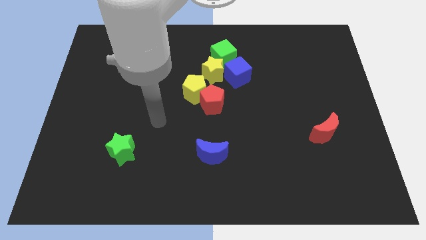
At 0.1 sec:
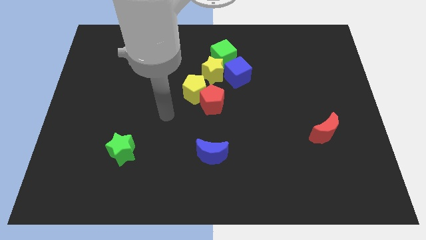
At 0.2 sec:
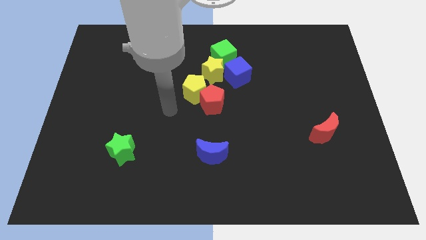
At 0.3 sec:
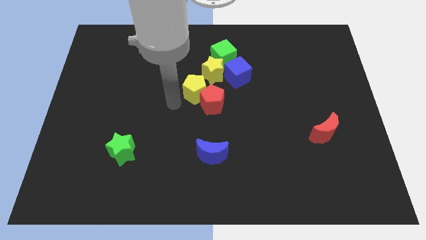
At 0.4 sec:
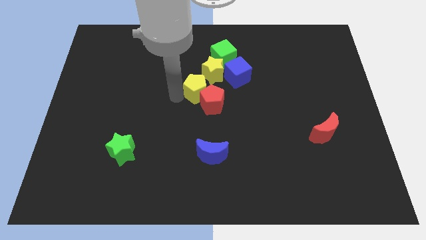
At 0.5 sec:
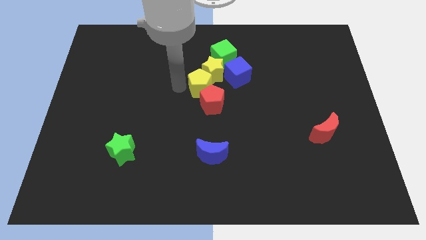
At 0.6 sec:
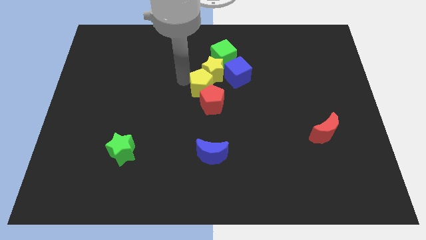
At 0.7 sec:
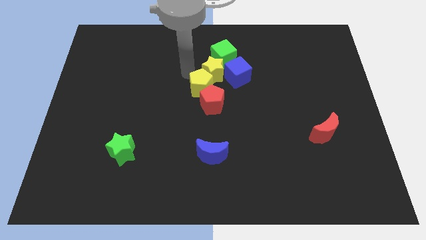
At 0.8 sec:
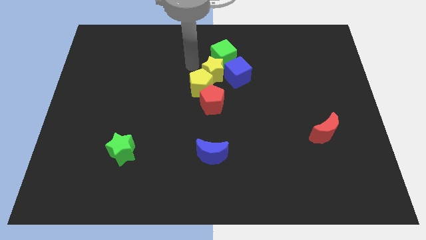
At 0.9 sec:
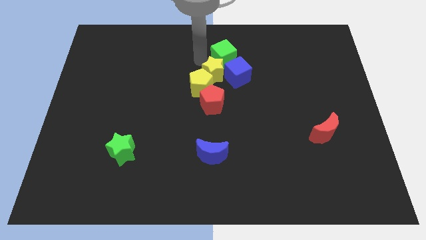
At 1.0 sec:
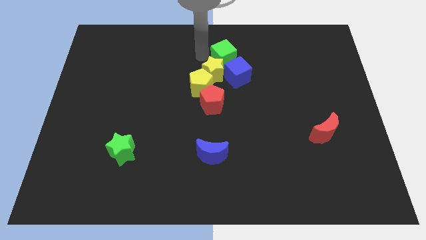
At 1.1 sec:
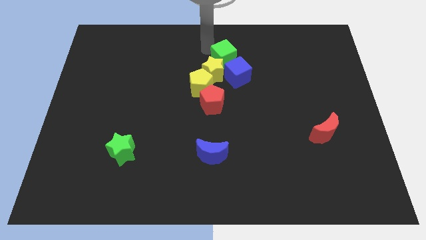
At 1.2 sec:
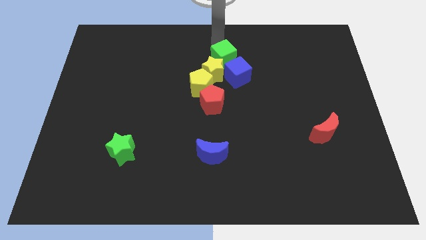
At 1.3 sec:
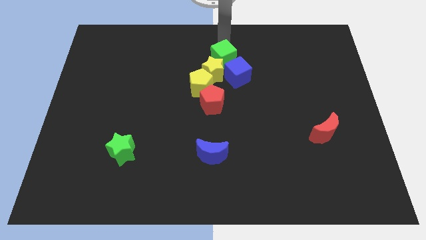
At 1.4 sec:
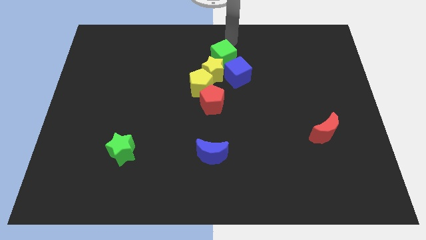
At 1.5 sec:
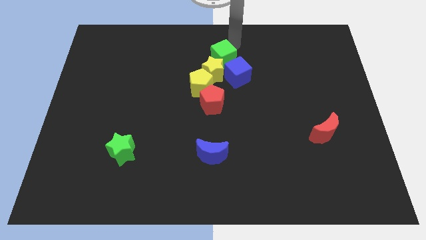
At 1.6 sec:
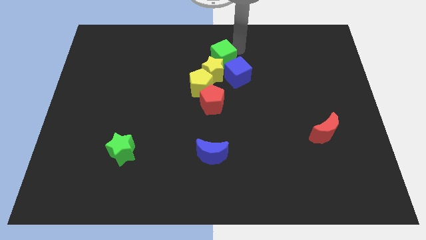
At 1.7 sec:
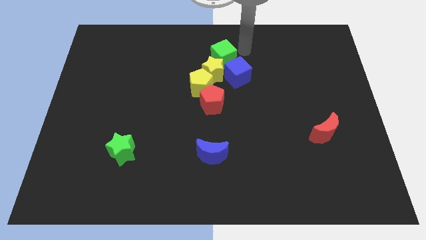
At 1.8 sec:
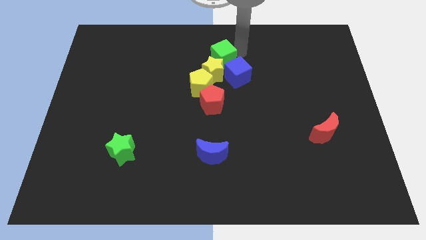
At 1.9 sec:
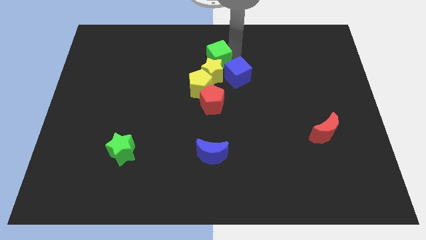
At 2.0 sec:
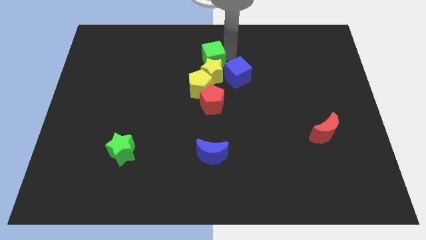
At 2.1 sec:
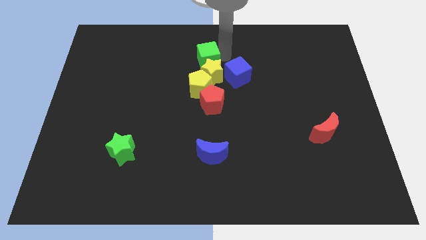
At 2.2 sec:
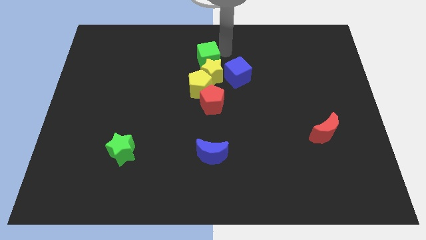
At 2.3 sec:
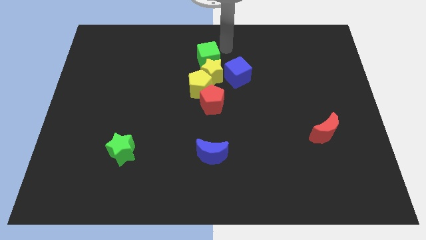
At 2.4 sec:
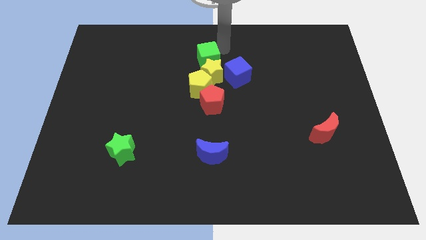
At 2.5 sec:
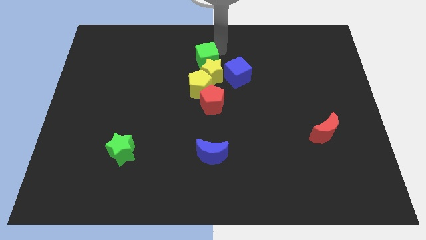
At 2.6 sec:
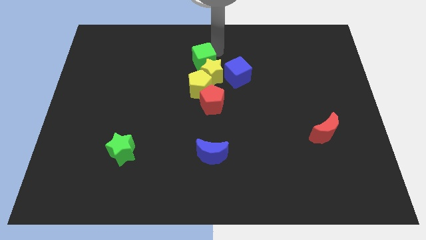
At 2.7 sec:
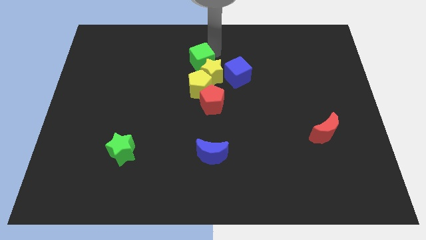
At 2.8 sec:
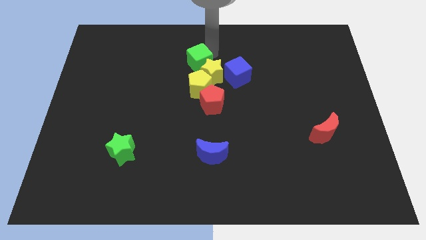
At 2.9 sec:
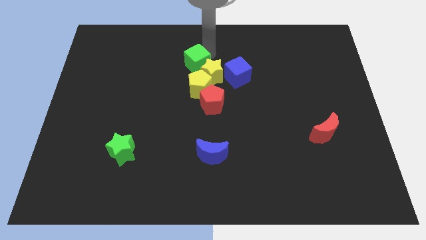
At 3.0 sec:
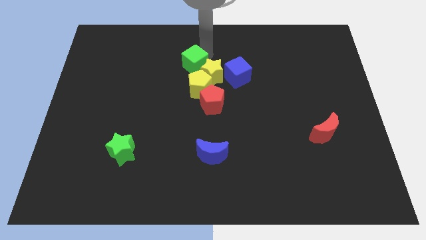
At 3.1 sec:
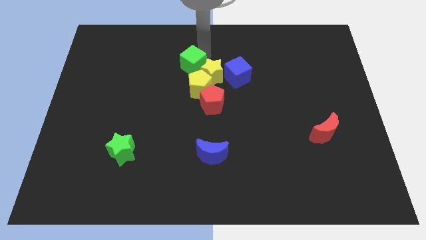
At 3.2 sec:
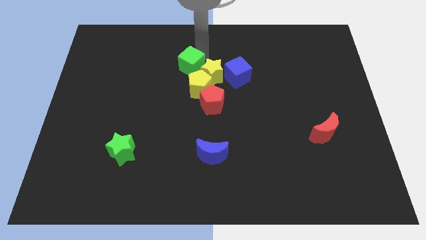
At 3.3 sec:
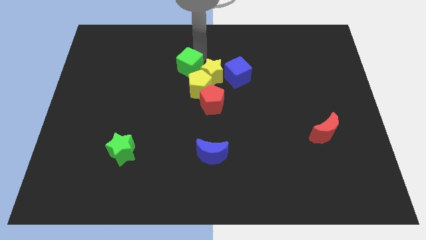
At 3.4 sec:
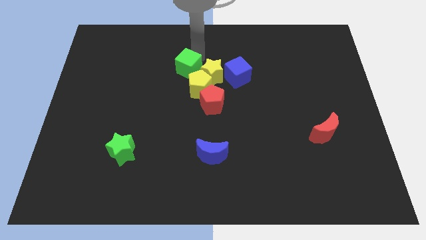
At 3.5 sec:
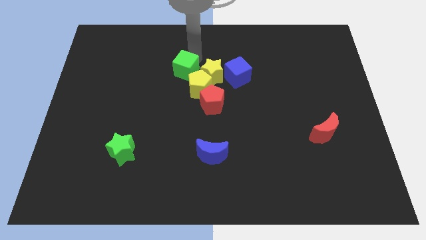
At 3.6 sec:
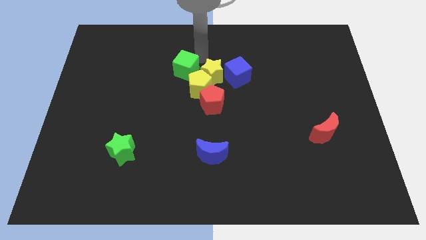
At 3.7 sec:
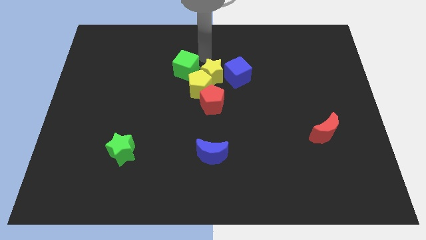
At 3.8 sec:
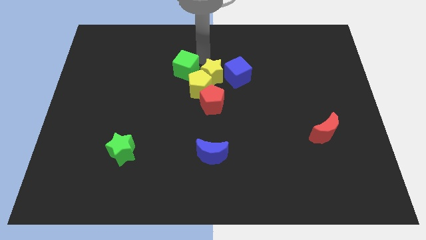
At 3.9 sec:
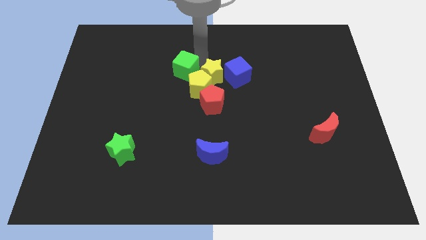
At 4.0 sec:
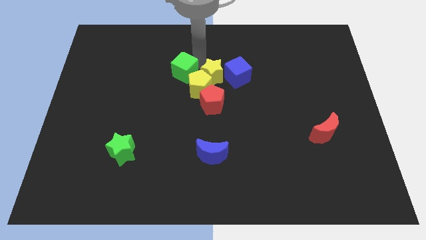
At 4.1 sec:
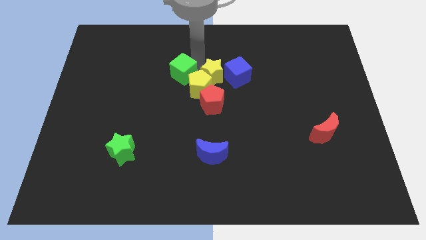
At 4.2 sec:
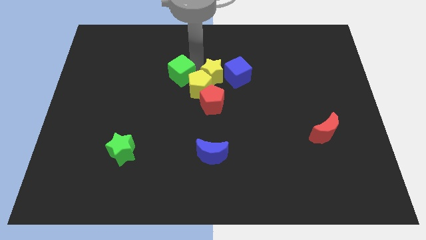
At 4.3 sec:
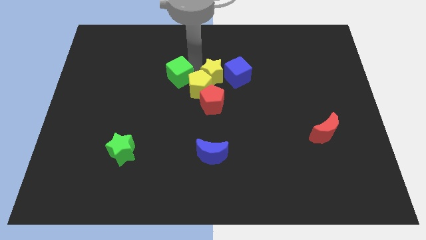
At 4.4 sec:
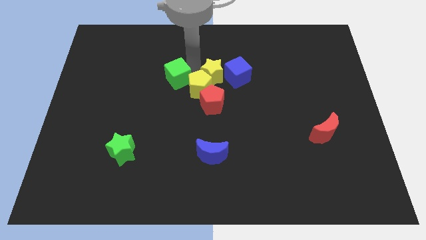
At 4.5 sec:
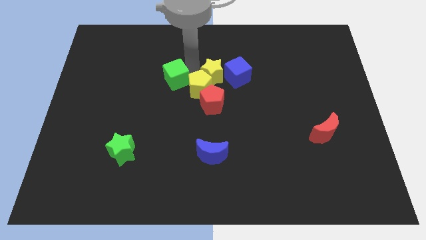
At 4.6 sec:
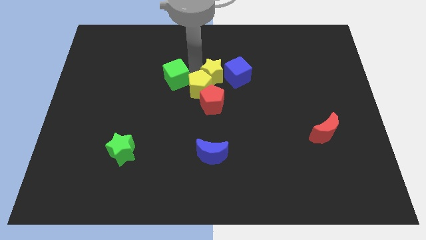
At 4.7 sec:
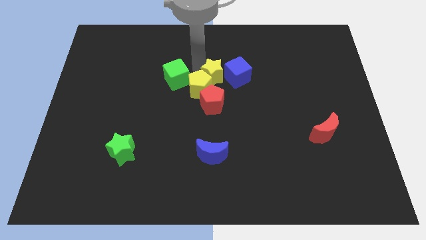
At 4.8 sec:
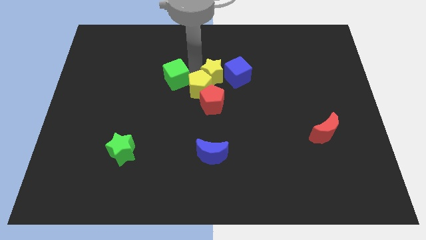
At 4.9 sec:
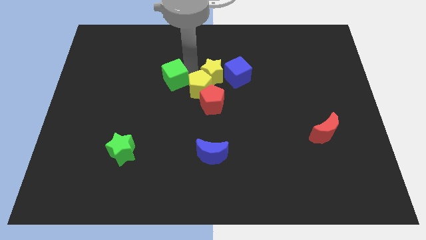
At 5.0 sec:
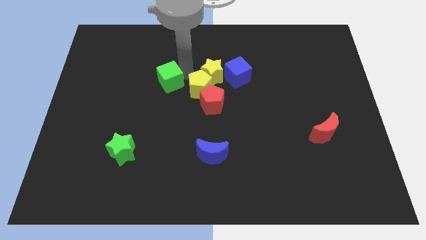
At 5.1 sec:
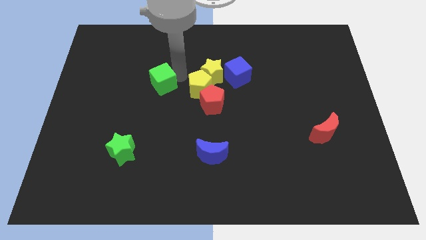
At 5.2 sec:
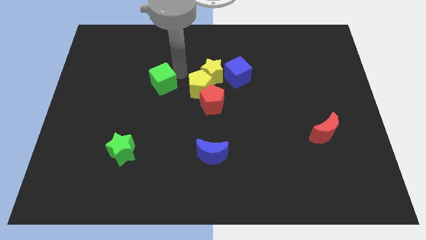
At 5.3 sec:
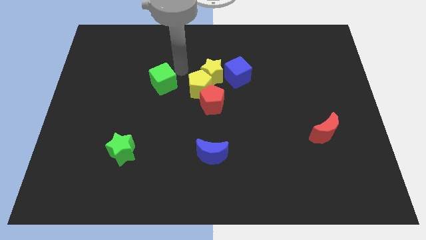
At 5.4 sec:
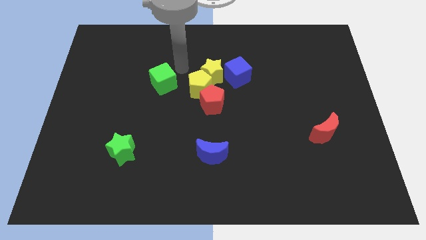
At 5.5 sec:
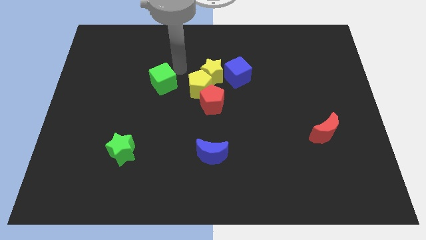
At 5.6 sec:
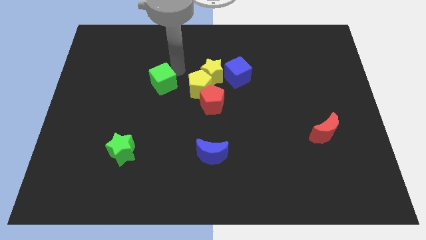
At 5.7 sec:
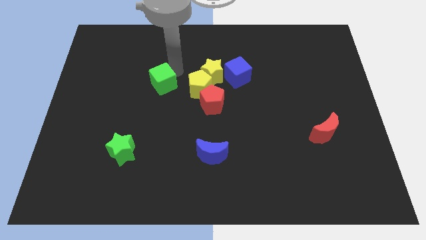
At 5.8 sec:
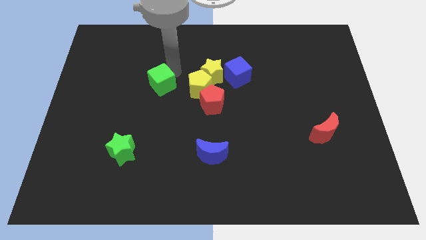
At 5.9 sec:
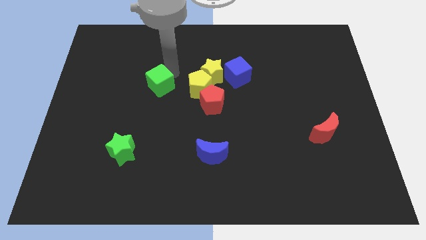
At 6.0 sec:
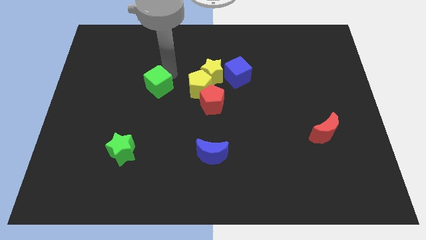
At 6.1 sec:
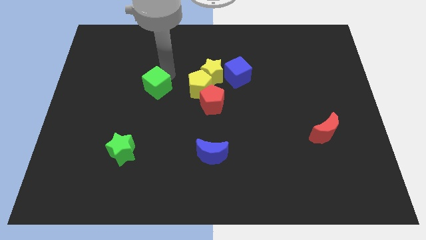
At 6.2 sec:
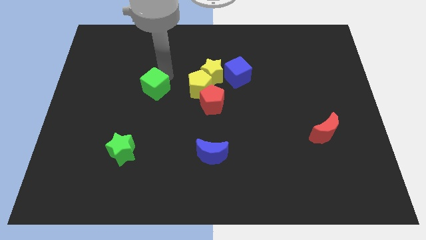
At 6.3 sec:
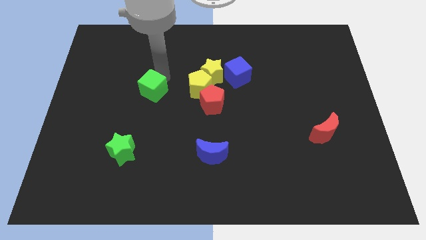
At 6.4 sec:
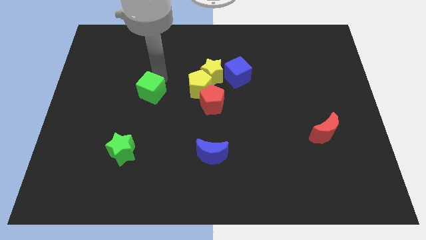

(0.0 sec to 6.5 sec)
slide the green cube down and then left

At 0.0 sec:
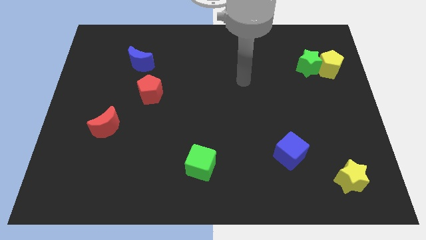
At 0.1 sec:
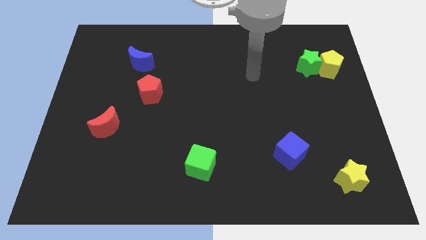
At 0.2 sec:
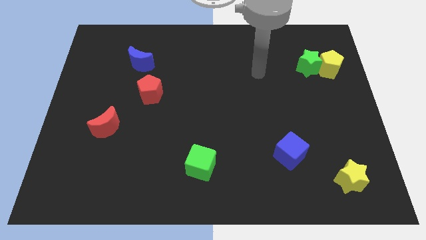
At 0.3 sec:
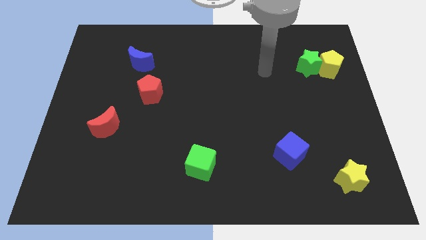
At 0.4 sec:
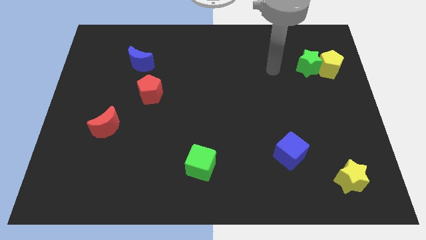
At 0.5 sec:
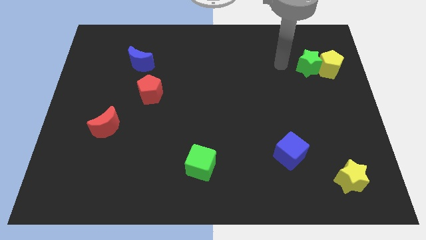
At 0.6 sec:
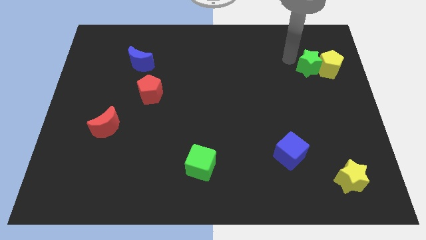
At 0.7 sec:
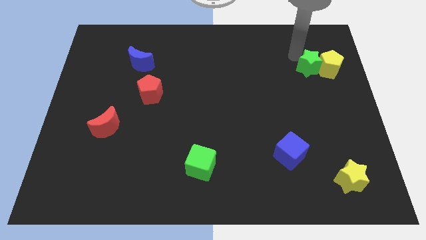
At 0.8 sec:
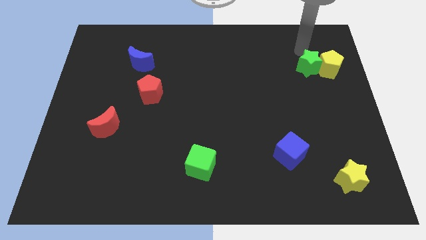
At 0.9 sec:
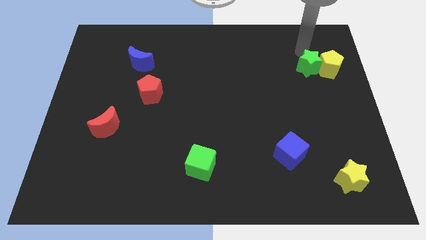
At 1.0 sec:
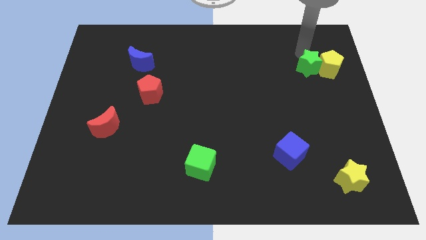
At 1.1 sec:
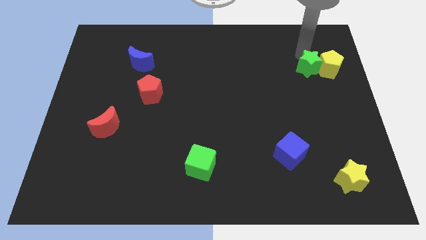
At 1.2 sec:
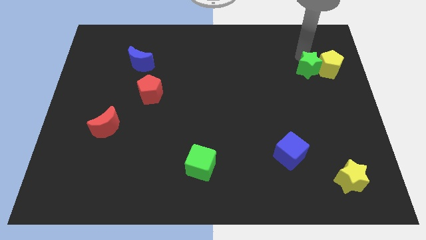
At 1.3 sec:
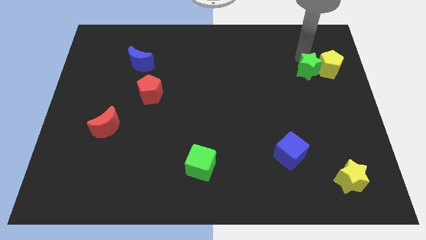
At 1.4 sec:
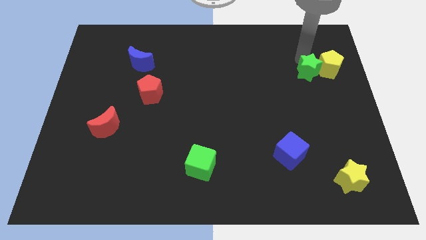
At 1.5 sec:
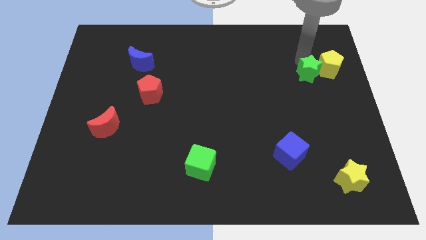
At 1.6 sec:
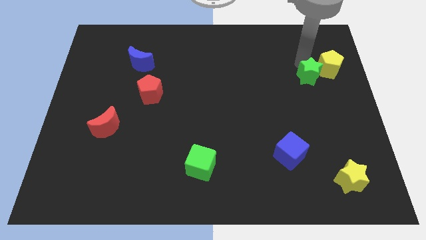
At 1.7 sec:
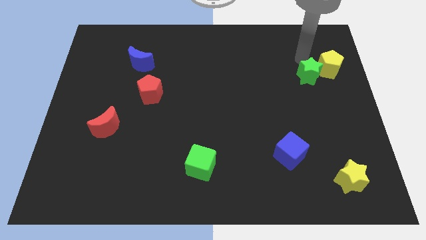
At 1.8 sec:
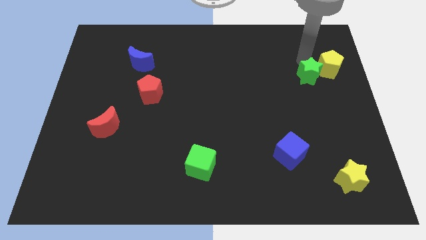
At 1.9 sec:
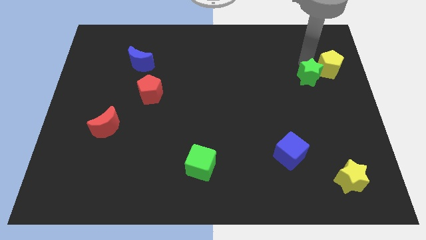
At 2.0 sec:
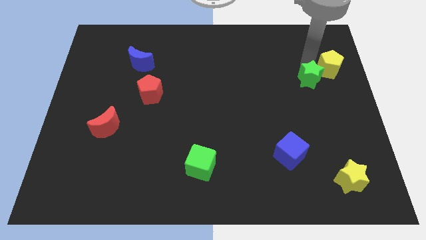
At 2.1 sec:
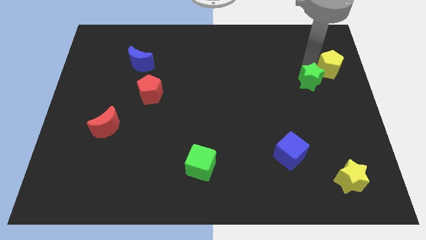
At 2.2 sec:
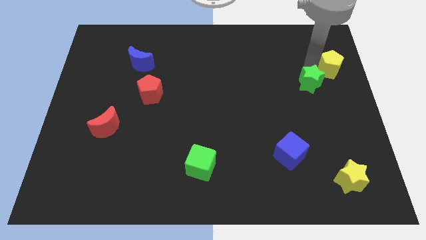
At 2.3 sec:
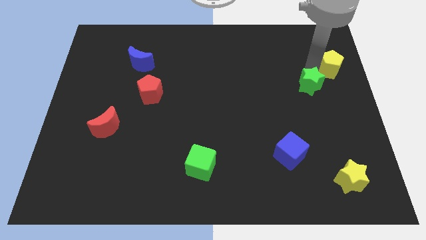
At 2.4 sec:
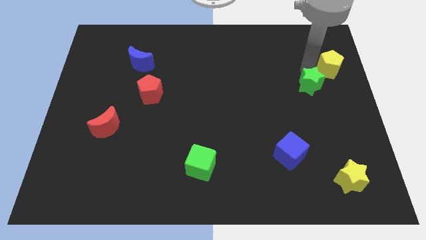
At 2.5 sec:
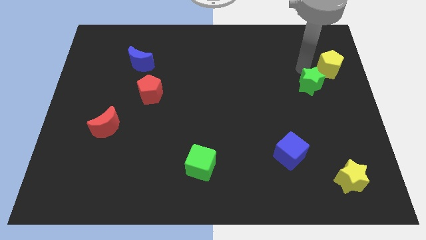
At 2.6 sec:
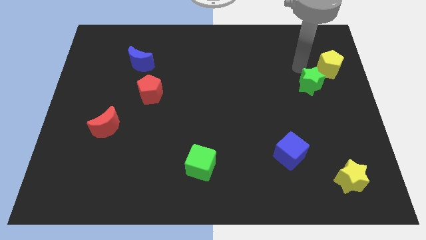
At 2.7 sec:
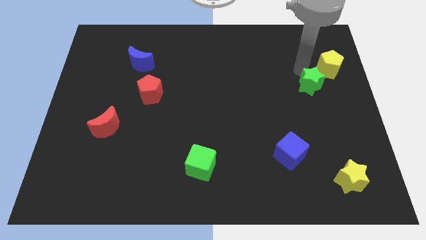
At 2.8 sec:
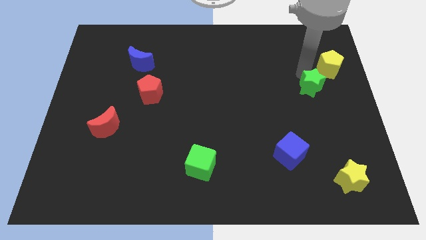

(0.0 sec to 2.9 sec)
slightly push the green star downwards
